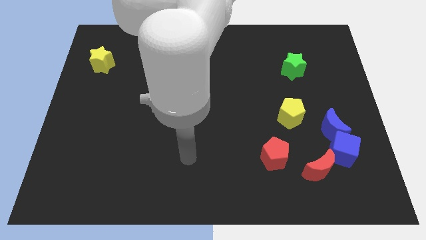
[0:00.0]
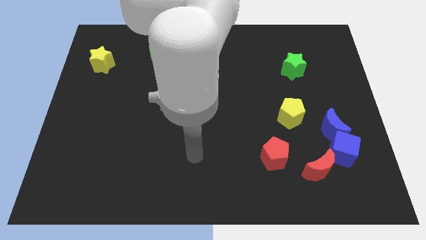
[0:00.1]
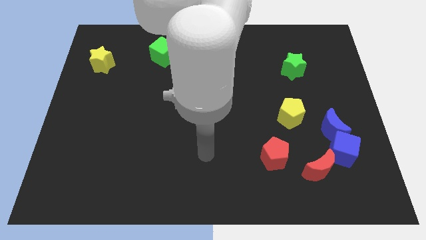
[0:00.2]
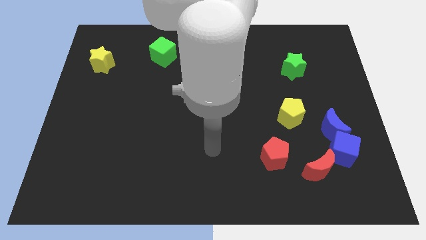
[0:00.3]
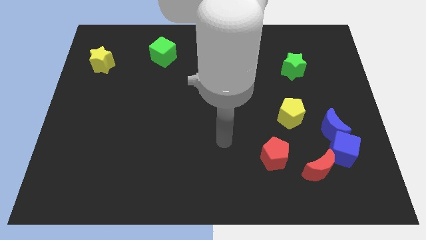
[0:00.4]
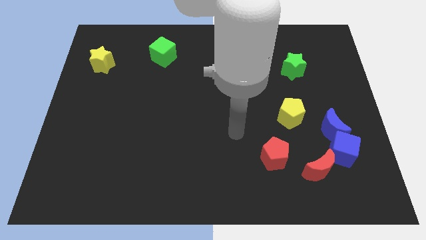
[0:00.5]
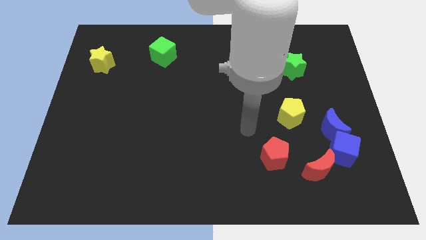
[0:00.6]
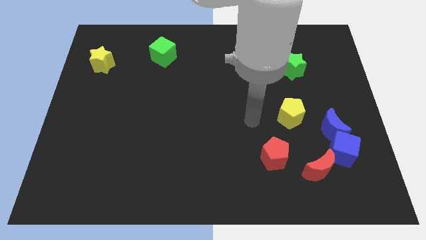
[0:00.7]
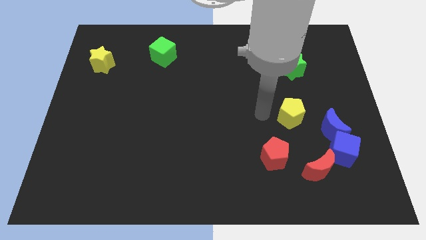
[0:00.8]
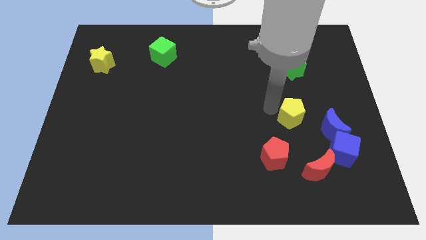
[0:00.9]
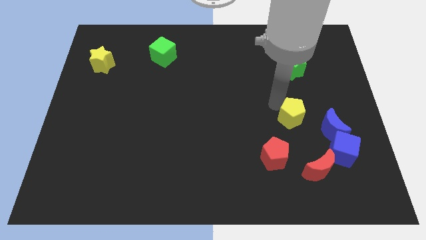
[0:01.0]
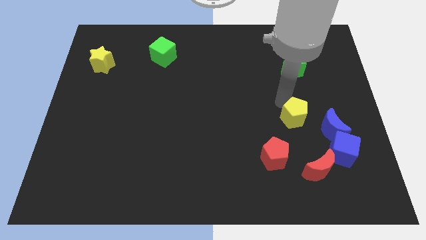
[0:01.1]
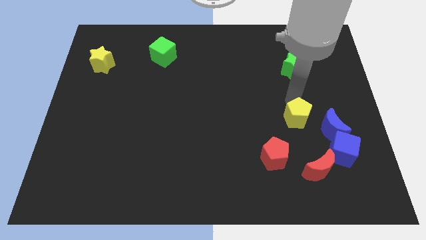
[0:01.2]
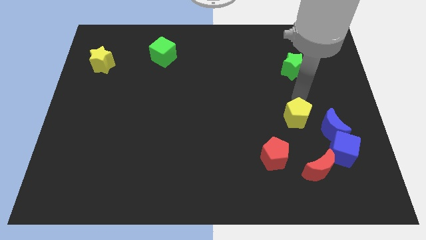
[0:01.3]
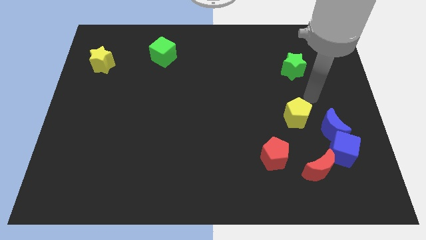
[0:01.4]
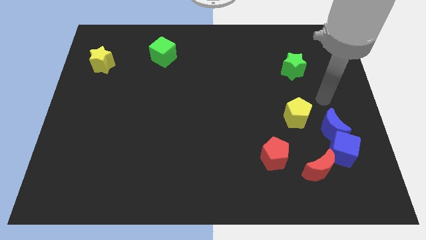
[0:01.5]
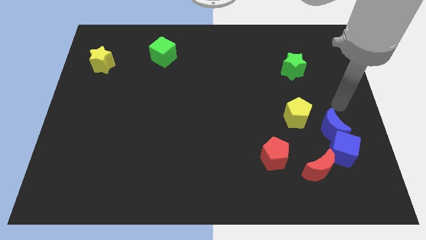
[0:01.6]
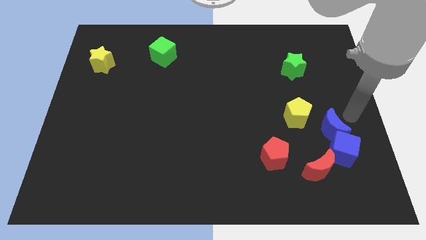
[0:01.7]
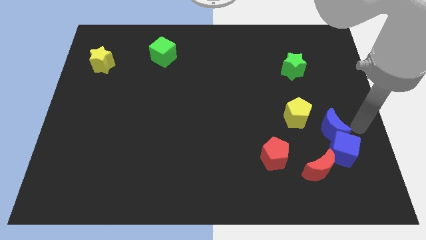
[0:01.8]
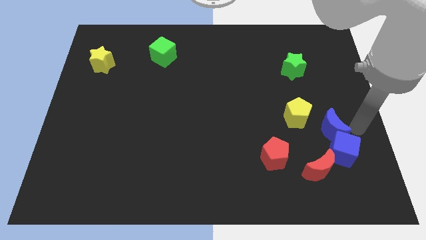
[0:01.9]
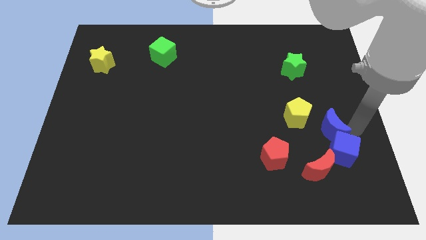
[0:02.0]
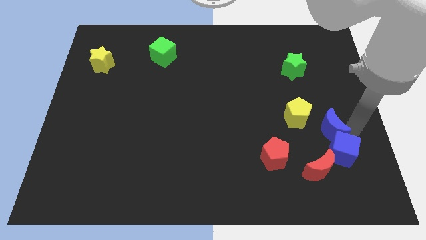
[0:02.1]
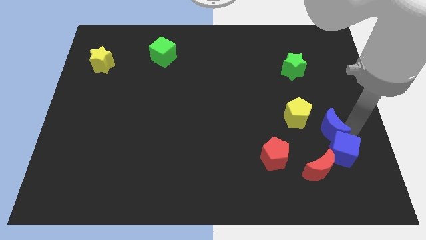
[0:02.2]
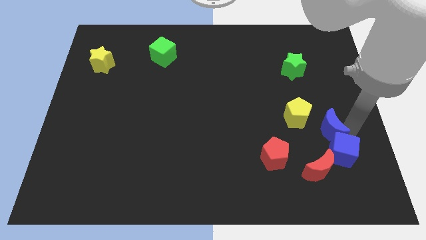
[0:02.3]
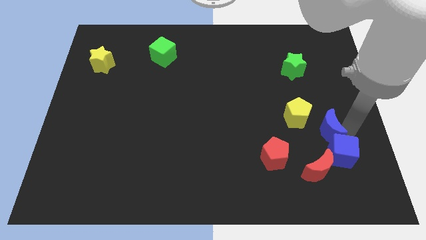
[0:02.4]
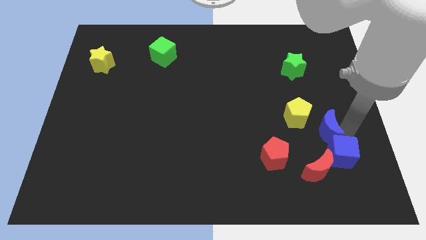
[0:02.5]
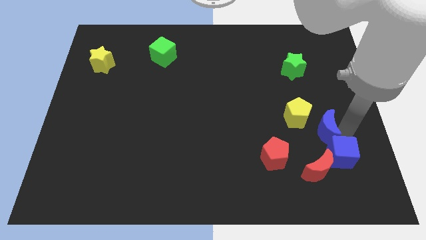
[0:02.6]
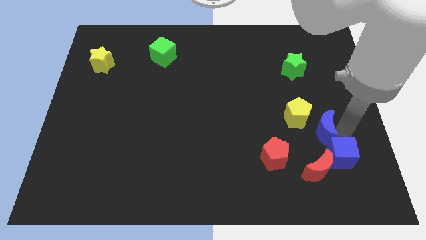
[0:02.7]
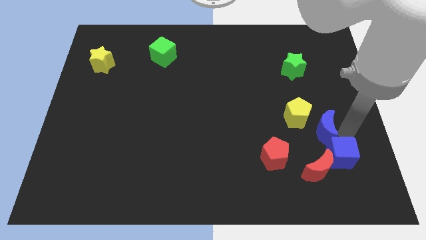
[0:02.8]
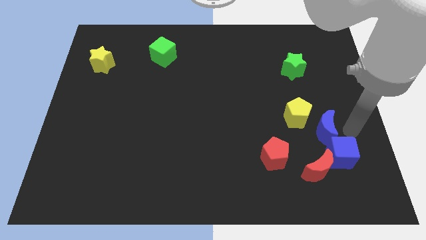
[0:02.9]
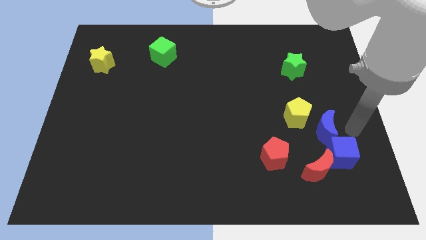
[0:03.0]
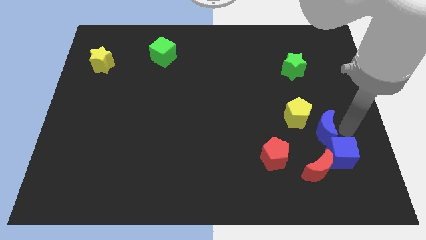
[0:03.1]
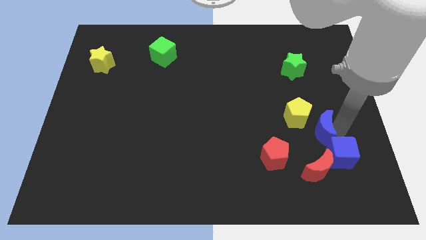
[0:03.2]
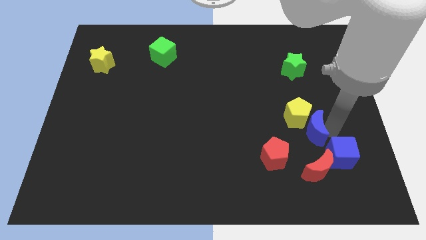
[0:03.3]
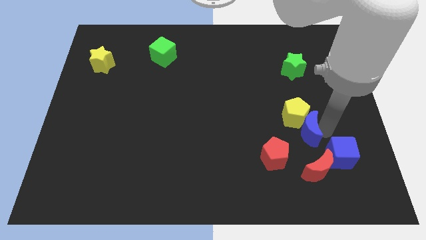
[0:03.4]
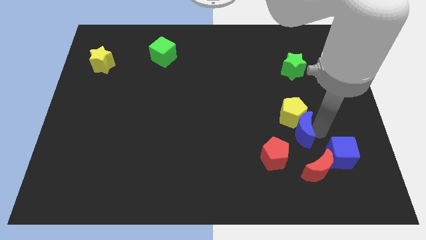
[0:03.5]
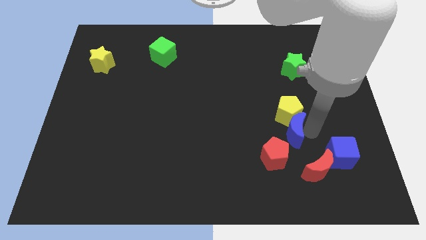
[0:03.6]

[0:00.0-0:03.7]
slide the blue moon a little bit to the left

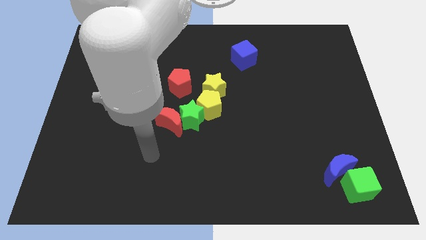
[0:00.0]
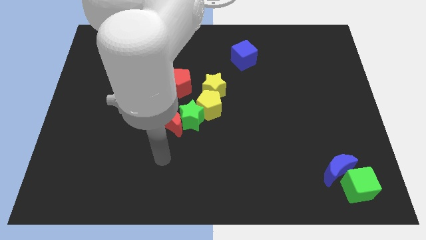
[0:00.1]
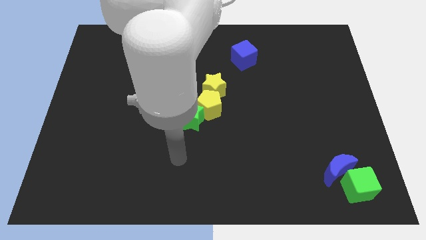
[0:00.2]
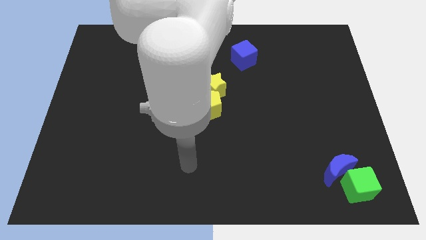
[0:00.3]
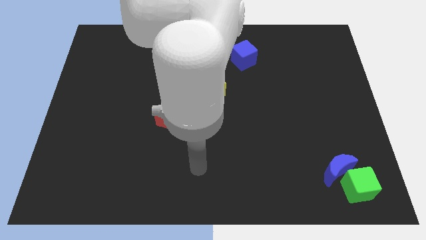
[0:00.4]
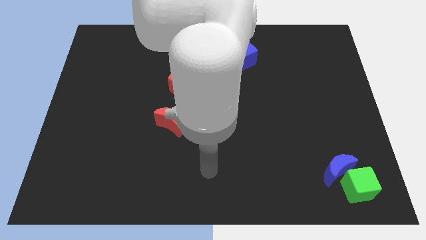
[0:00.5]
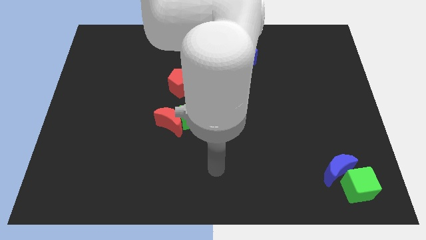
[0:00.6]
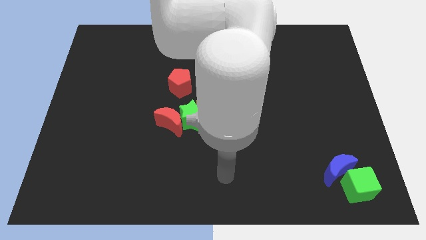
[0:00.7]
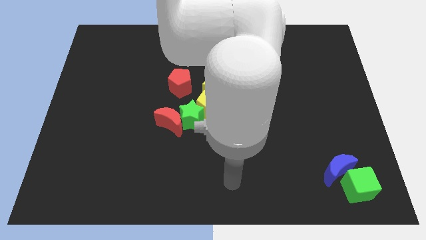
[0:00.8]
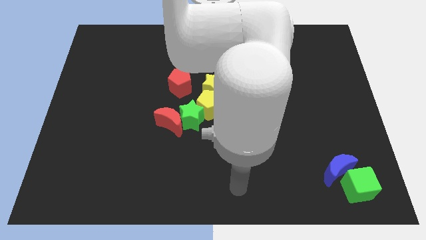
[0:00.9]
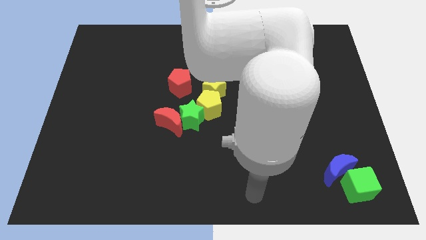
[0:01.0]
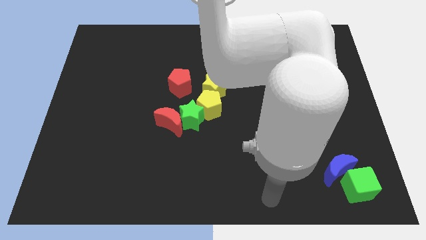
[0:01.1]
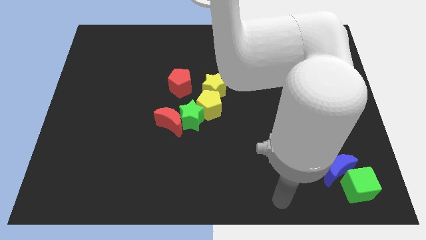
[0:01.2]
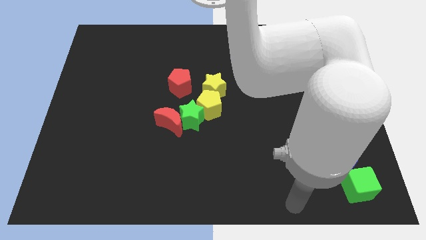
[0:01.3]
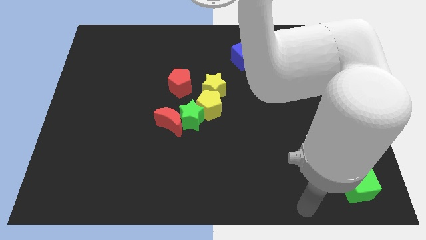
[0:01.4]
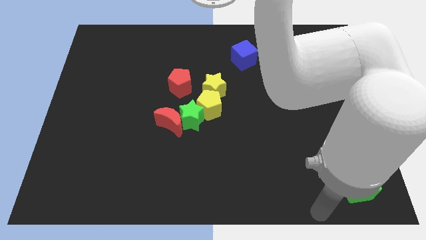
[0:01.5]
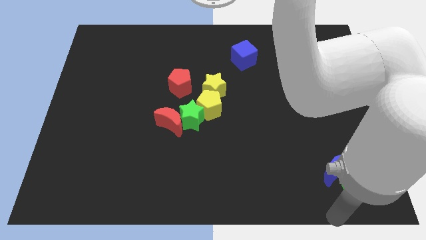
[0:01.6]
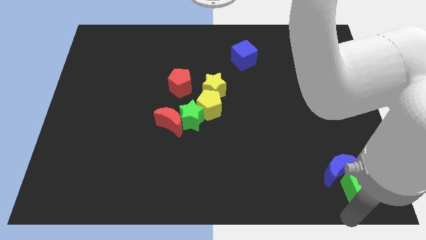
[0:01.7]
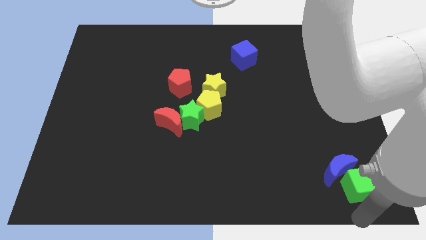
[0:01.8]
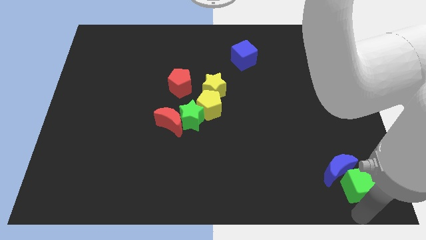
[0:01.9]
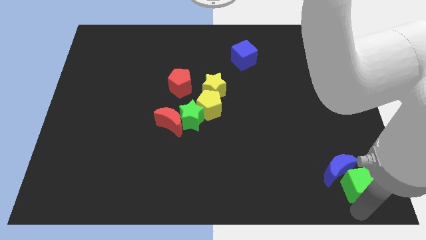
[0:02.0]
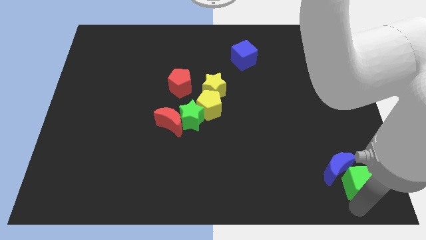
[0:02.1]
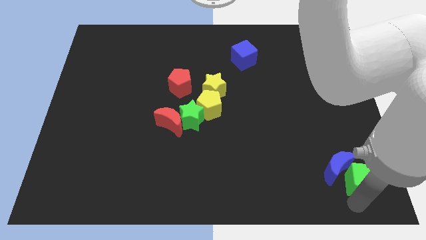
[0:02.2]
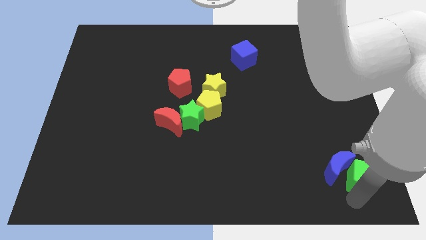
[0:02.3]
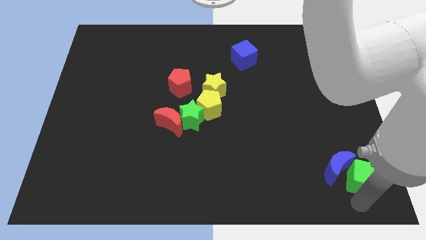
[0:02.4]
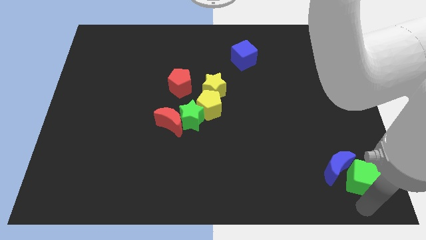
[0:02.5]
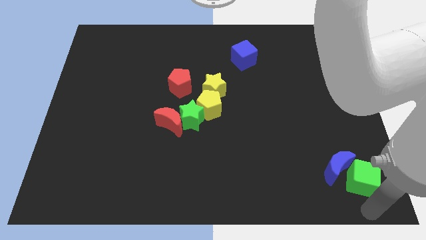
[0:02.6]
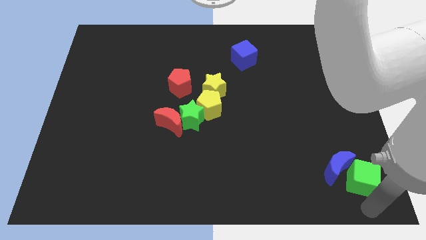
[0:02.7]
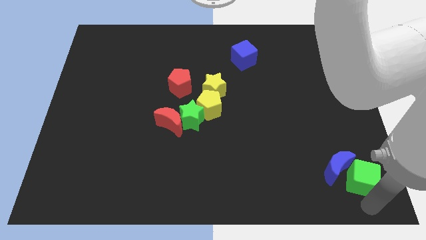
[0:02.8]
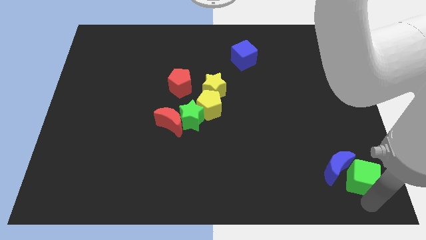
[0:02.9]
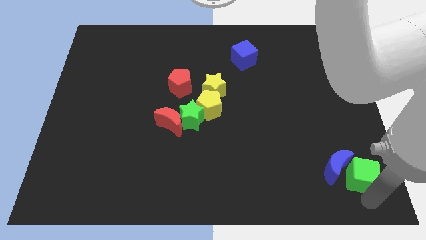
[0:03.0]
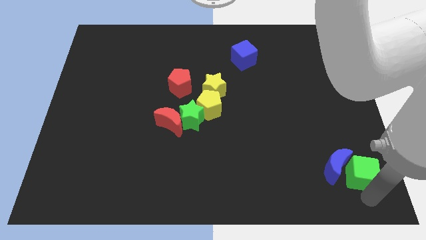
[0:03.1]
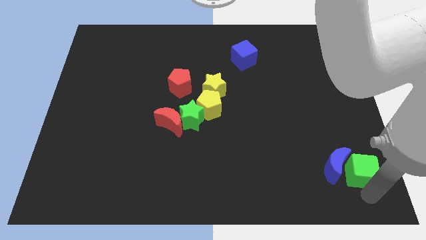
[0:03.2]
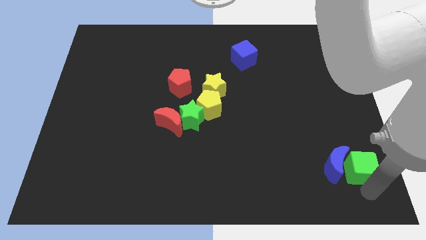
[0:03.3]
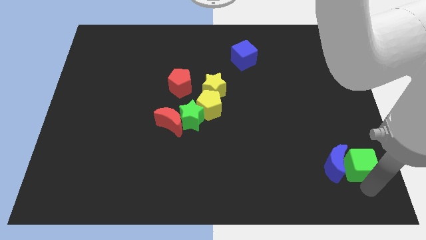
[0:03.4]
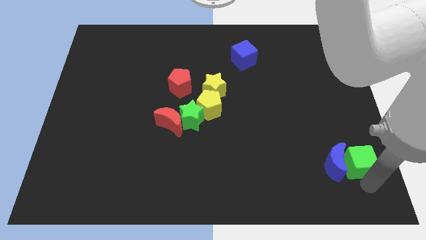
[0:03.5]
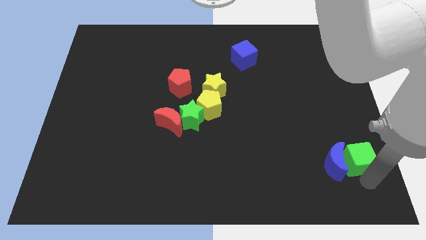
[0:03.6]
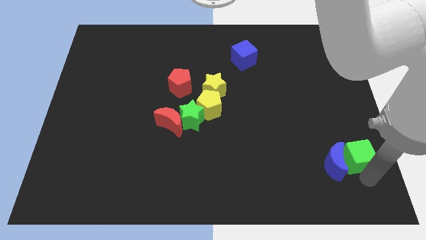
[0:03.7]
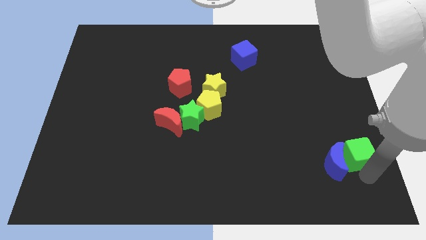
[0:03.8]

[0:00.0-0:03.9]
slightly push the green cube upwards
